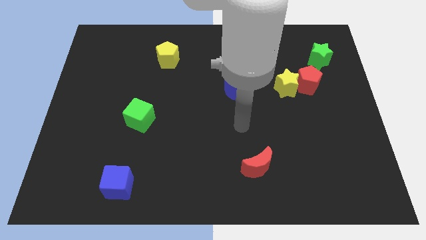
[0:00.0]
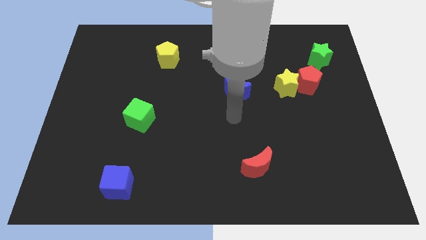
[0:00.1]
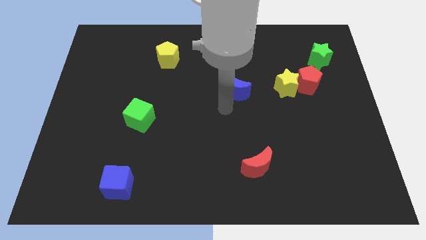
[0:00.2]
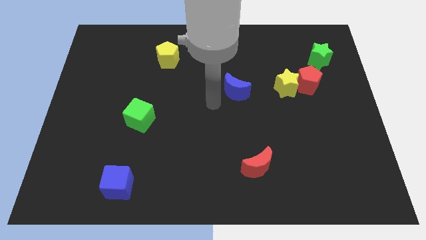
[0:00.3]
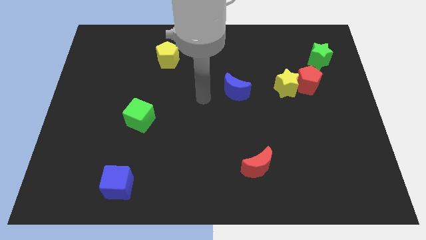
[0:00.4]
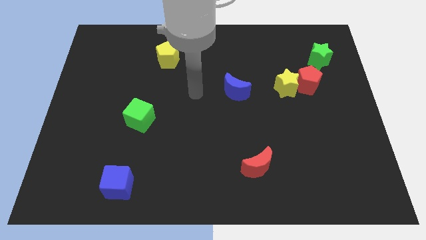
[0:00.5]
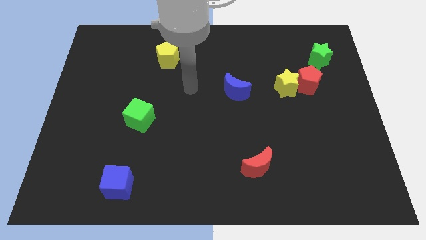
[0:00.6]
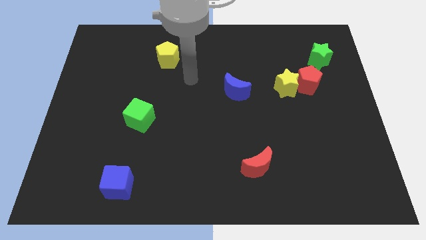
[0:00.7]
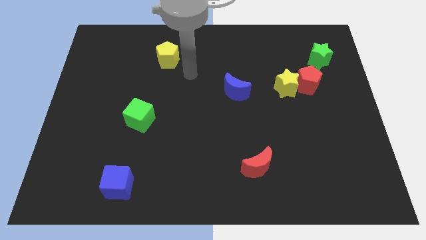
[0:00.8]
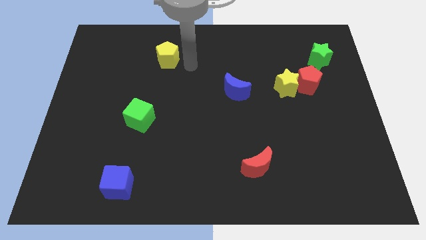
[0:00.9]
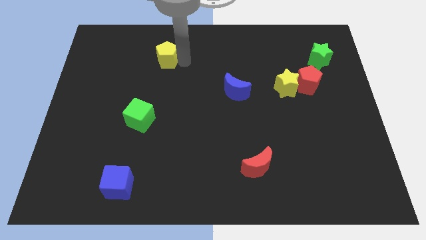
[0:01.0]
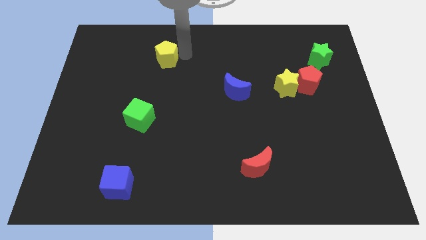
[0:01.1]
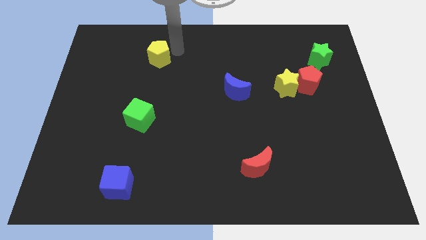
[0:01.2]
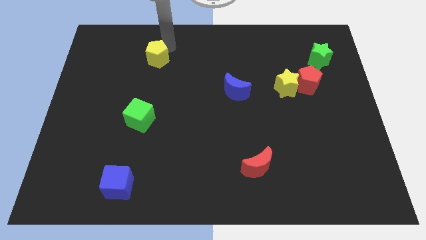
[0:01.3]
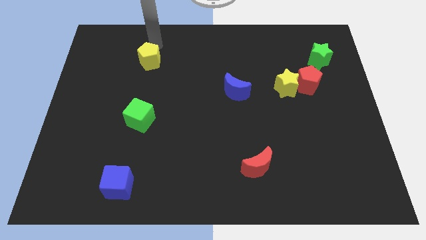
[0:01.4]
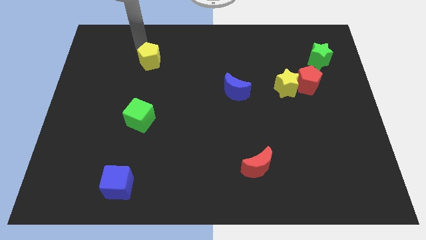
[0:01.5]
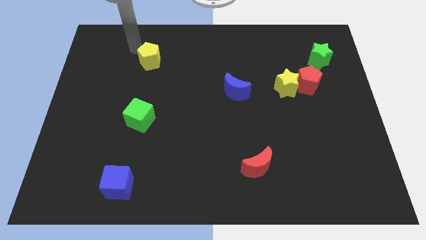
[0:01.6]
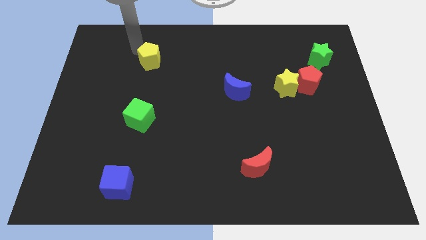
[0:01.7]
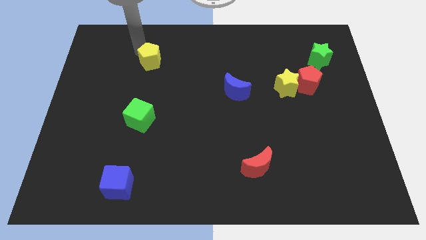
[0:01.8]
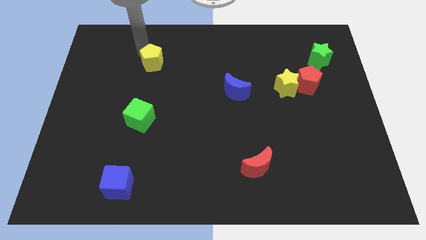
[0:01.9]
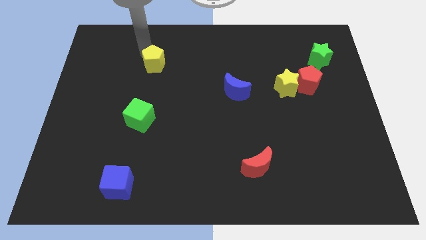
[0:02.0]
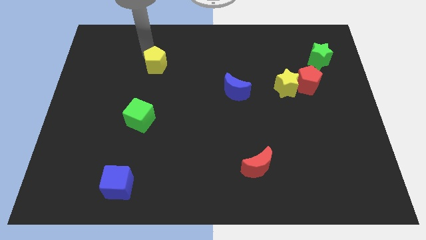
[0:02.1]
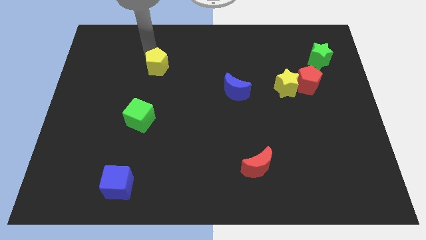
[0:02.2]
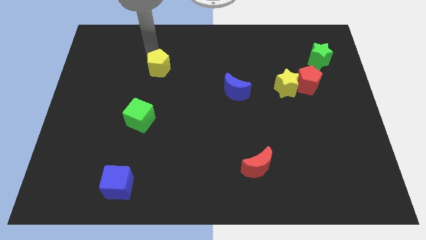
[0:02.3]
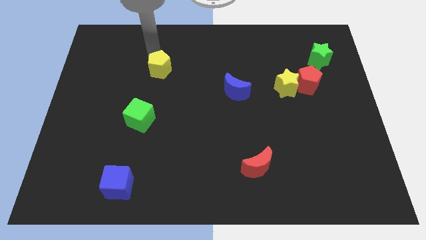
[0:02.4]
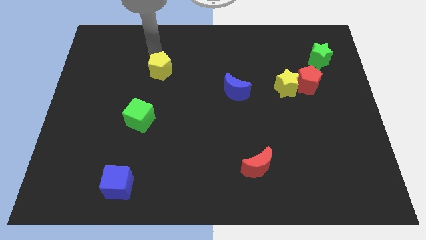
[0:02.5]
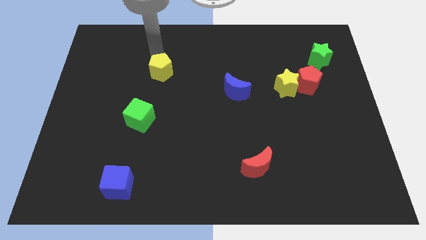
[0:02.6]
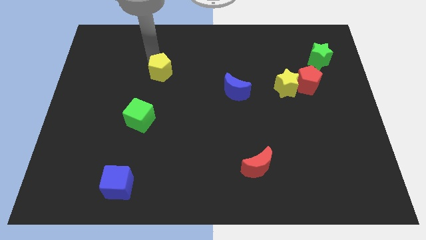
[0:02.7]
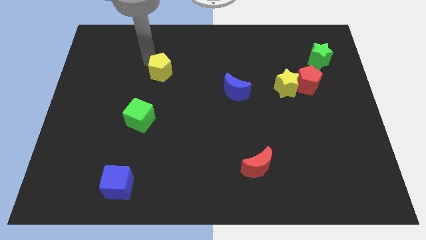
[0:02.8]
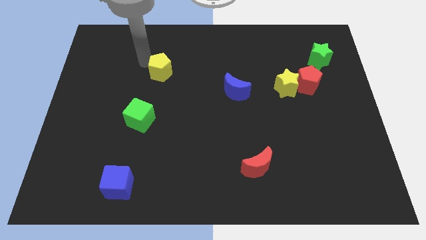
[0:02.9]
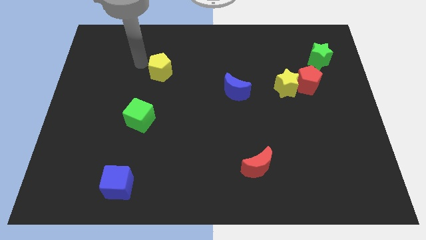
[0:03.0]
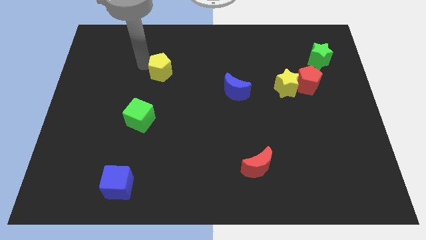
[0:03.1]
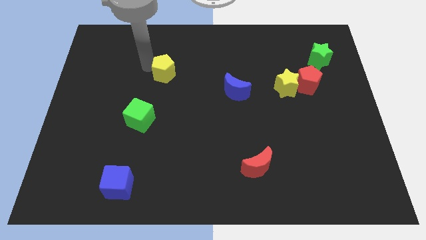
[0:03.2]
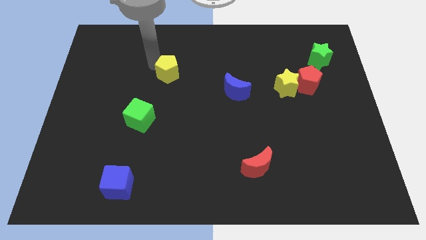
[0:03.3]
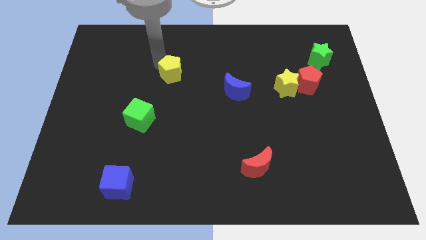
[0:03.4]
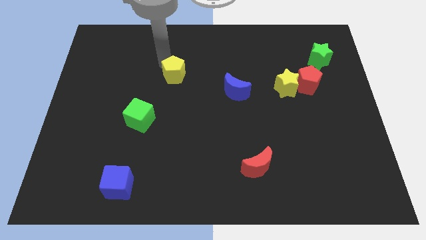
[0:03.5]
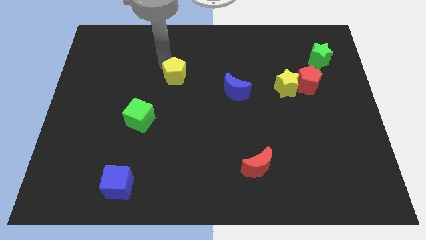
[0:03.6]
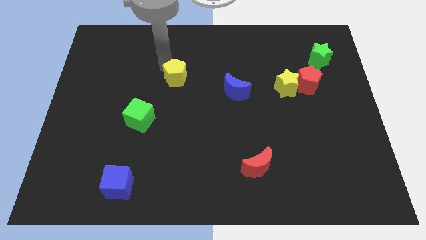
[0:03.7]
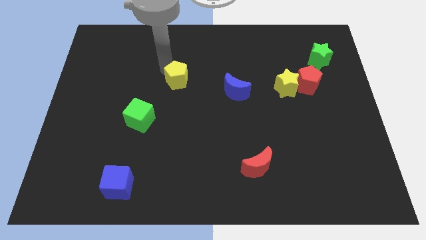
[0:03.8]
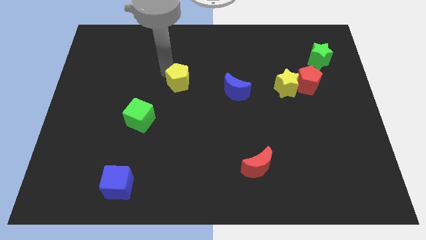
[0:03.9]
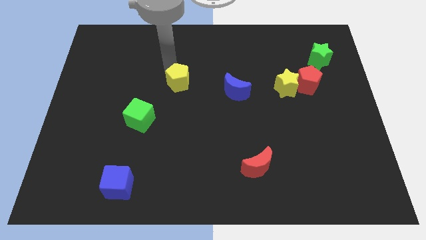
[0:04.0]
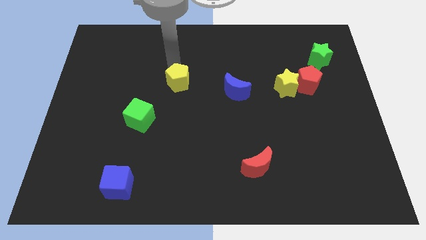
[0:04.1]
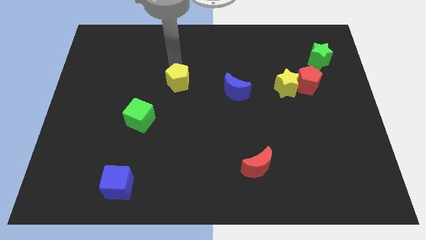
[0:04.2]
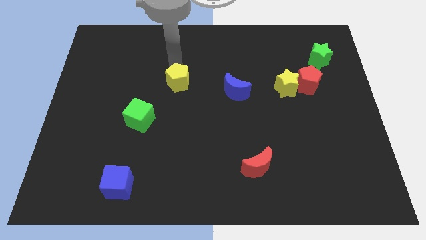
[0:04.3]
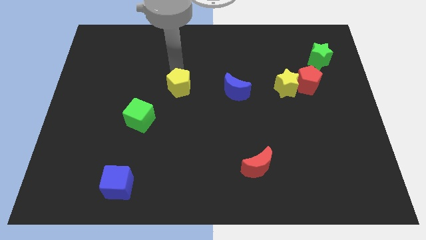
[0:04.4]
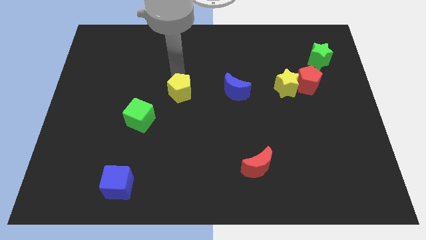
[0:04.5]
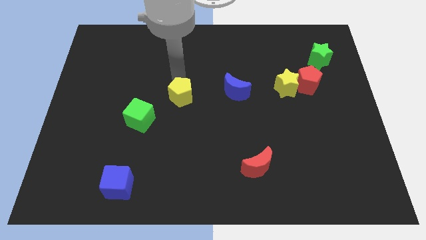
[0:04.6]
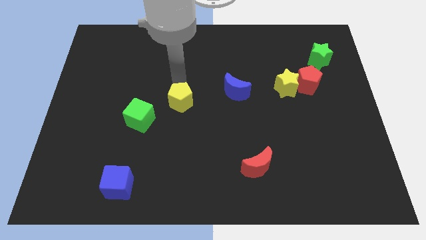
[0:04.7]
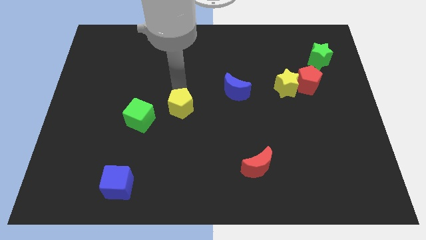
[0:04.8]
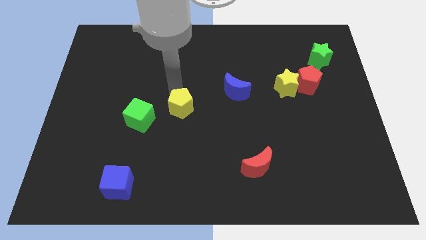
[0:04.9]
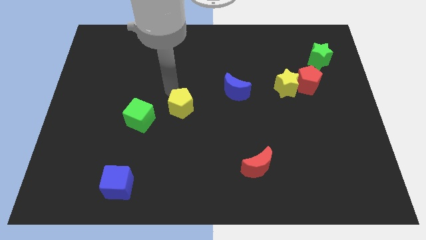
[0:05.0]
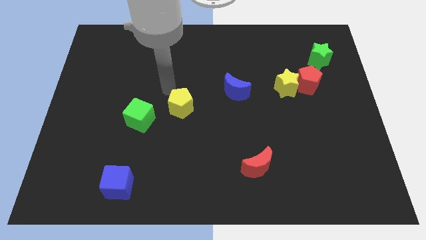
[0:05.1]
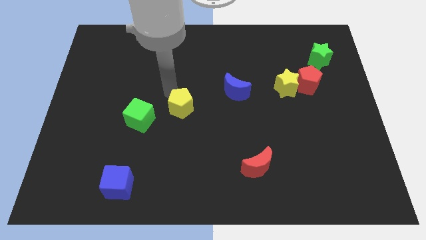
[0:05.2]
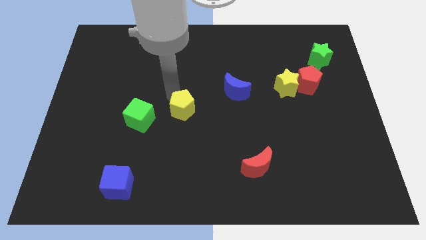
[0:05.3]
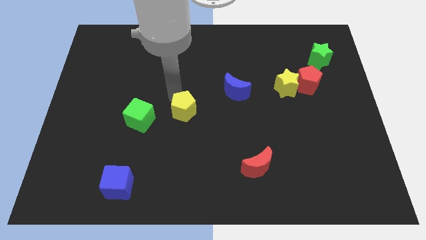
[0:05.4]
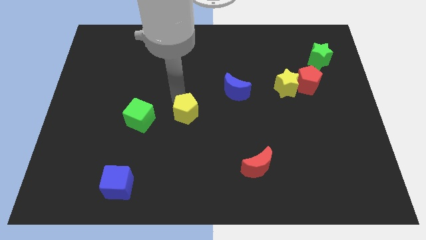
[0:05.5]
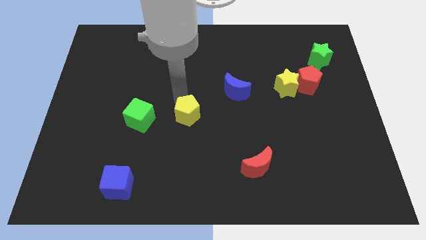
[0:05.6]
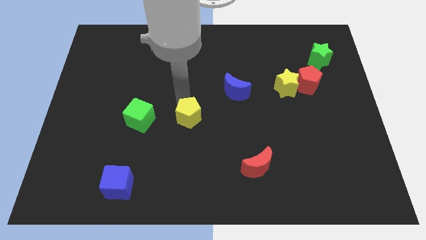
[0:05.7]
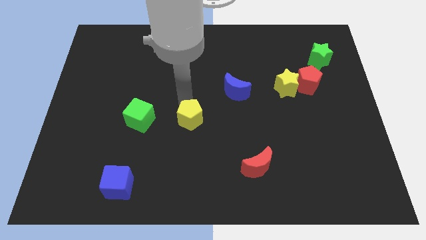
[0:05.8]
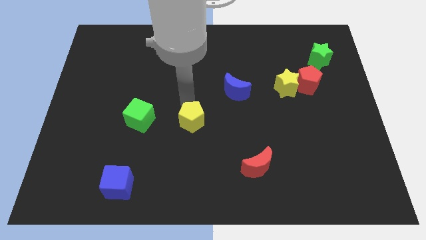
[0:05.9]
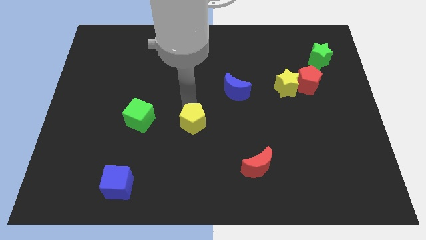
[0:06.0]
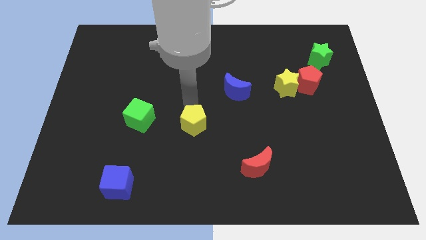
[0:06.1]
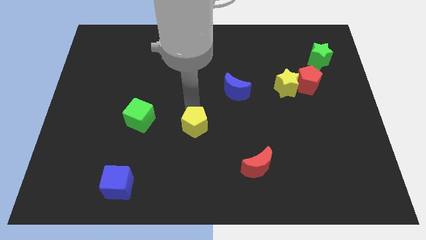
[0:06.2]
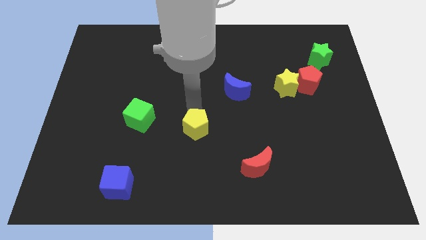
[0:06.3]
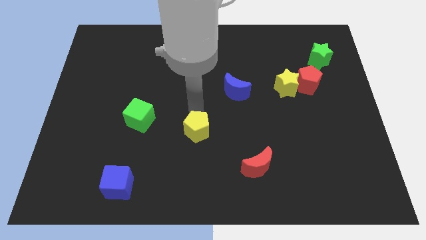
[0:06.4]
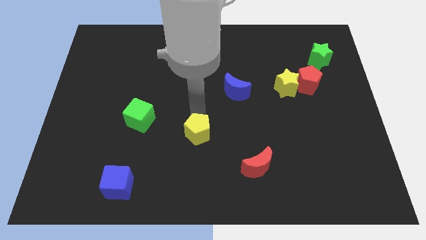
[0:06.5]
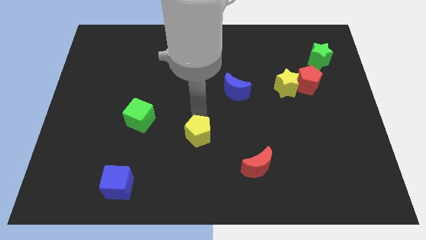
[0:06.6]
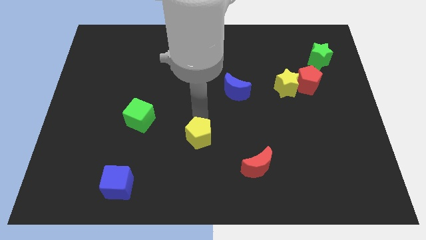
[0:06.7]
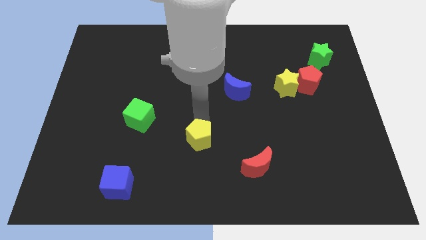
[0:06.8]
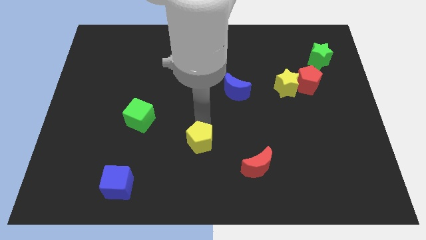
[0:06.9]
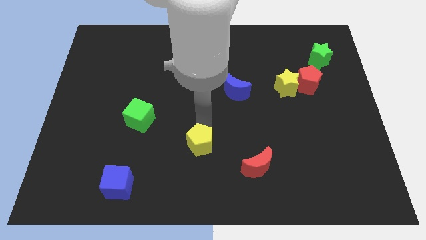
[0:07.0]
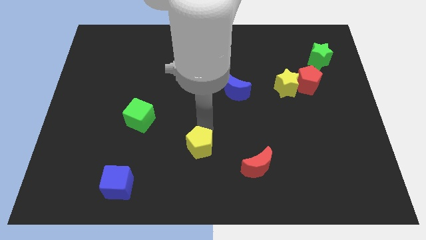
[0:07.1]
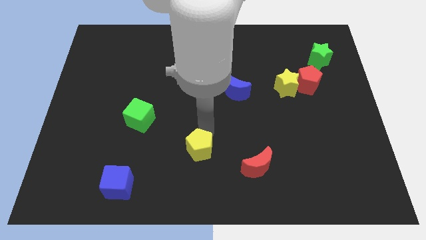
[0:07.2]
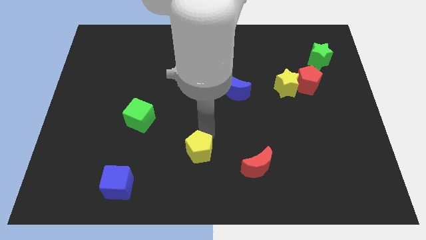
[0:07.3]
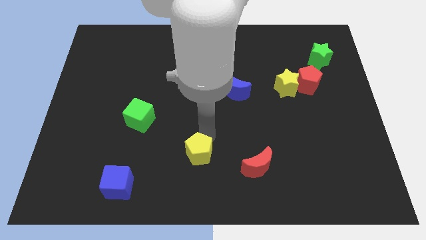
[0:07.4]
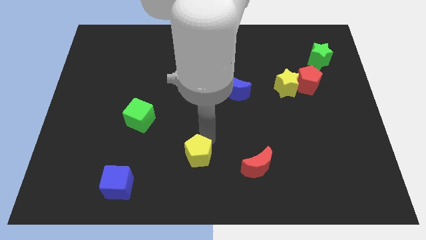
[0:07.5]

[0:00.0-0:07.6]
push the yellow pentagon to the bottom
